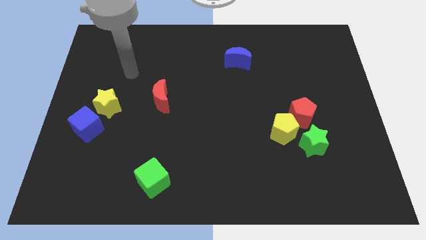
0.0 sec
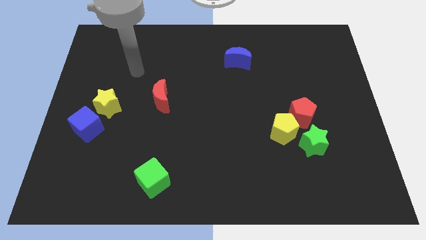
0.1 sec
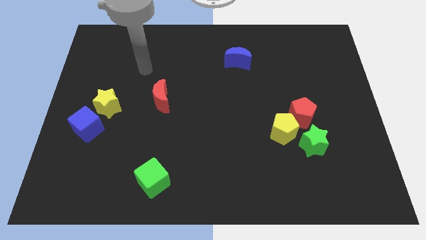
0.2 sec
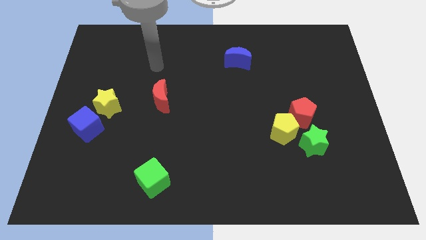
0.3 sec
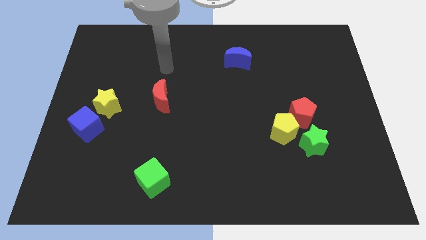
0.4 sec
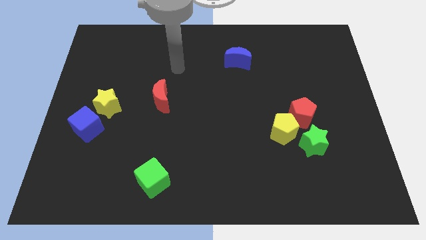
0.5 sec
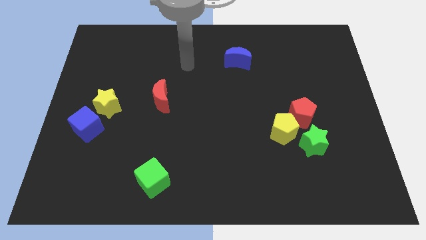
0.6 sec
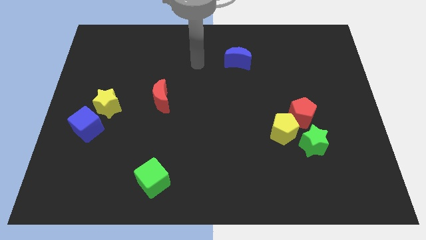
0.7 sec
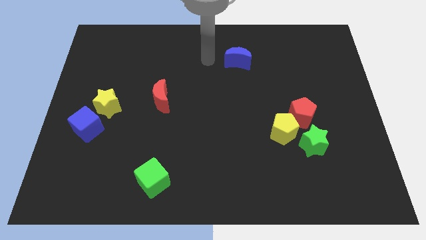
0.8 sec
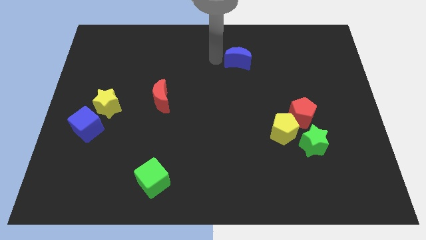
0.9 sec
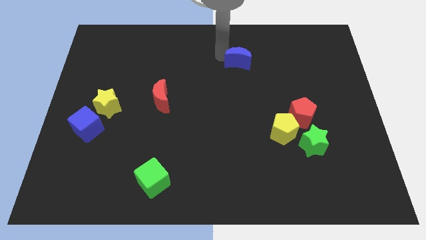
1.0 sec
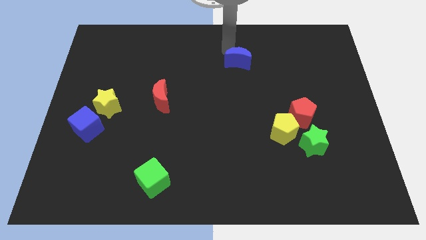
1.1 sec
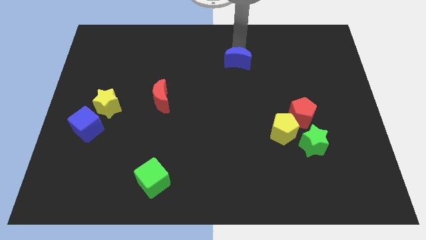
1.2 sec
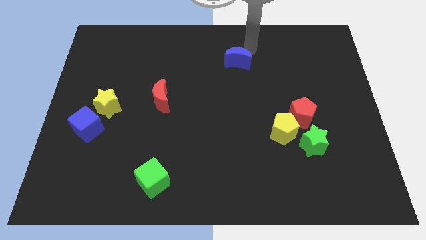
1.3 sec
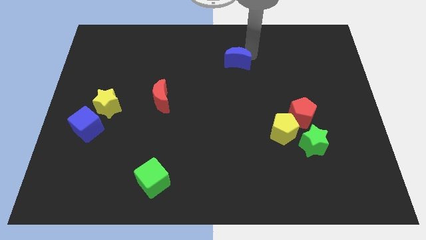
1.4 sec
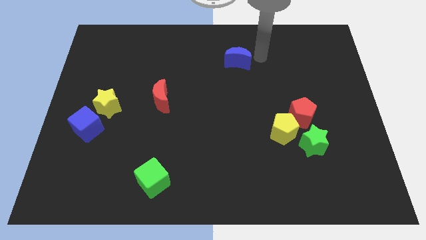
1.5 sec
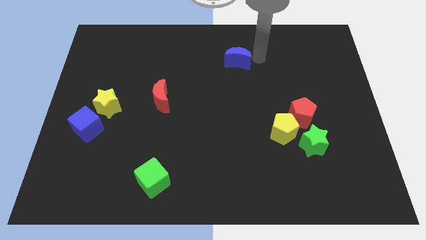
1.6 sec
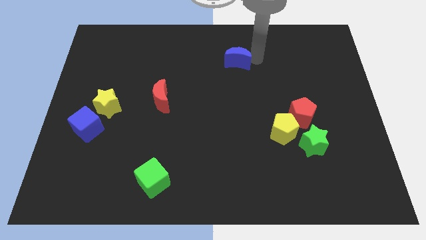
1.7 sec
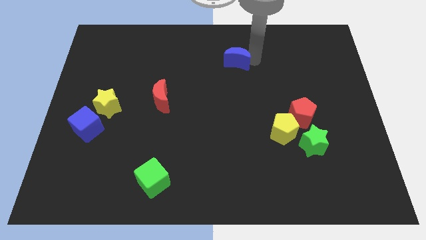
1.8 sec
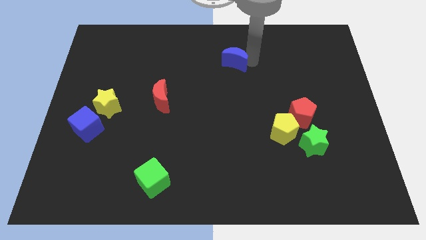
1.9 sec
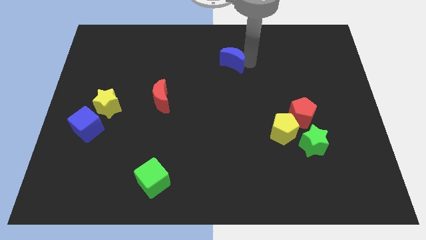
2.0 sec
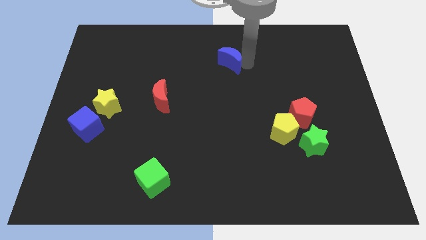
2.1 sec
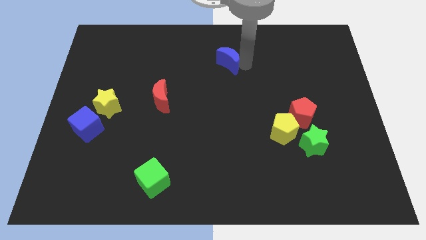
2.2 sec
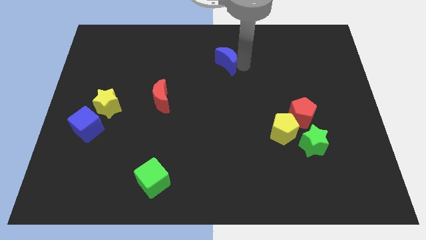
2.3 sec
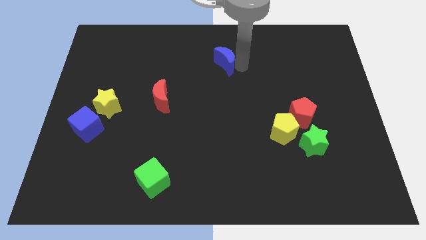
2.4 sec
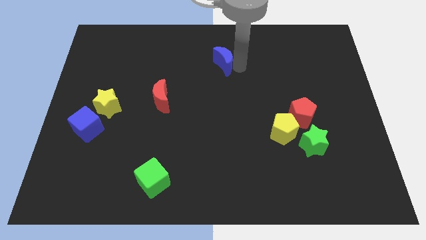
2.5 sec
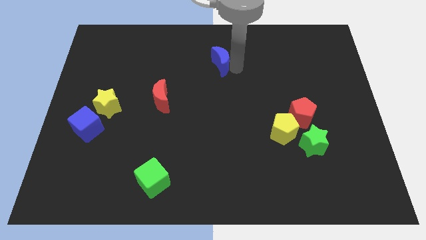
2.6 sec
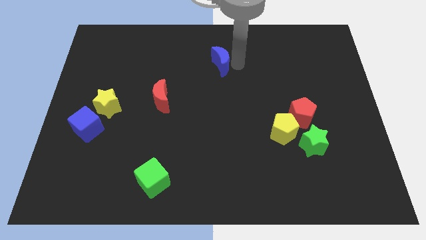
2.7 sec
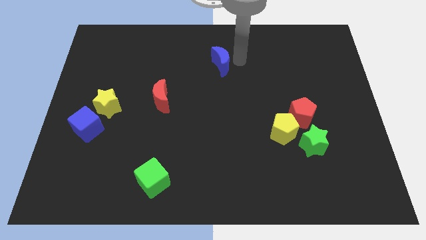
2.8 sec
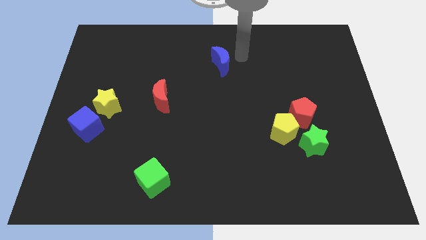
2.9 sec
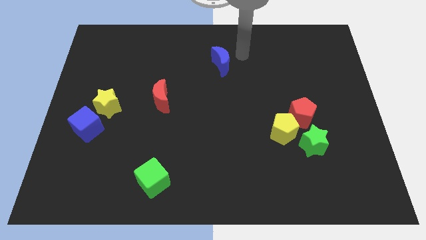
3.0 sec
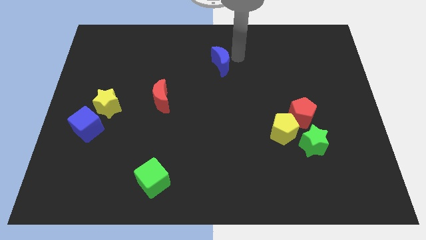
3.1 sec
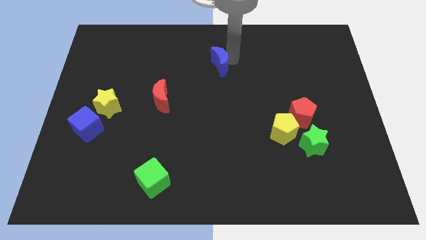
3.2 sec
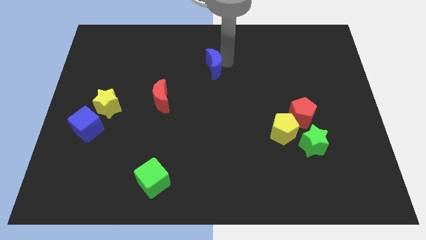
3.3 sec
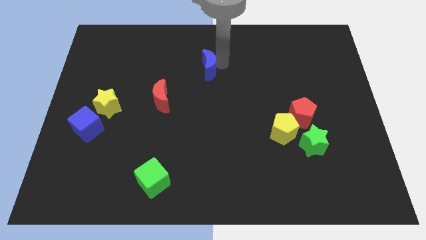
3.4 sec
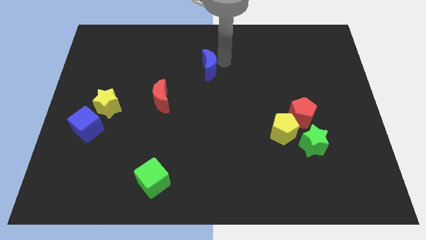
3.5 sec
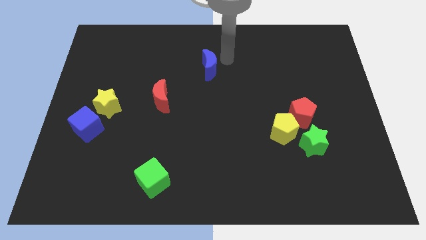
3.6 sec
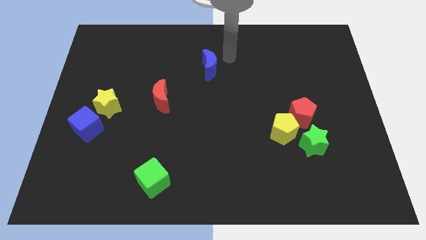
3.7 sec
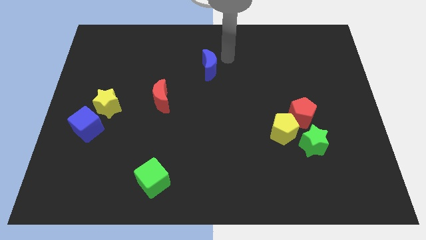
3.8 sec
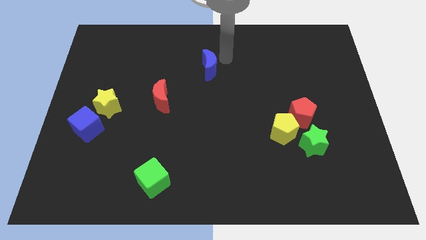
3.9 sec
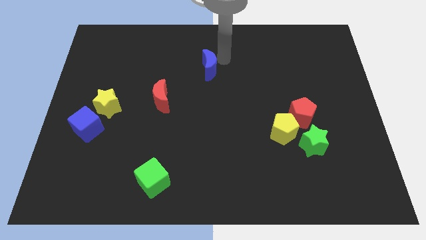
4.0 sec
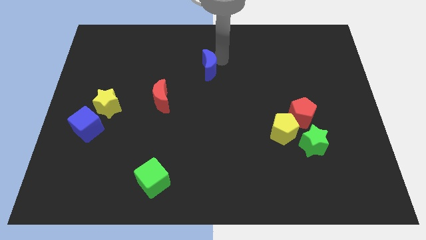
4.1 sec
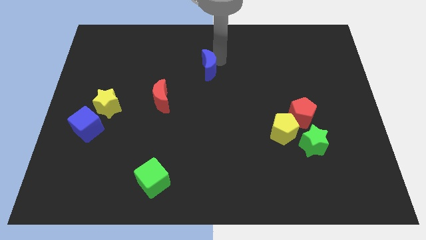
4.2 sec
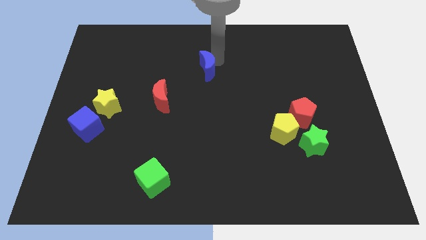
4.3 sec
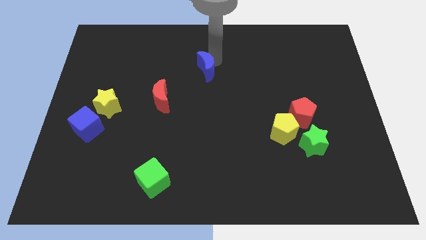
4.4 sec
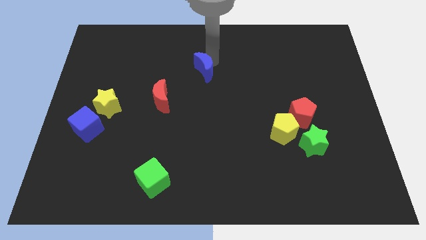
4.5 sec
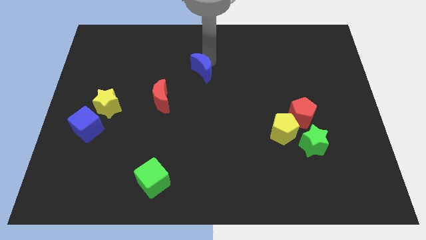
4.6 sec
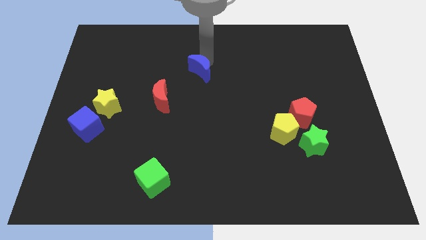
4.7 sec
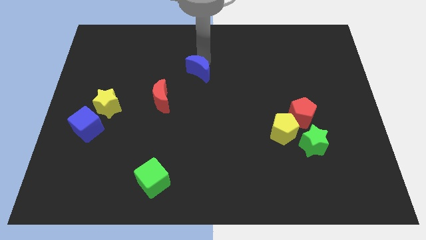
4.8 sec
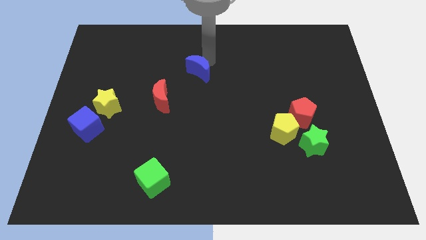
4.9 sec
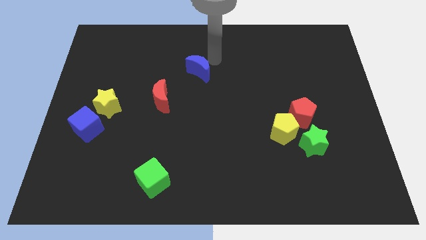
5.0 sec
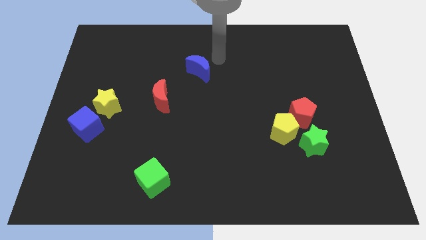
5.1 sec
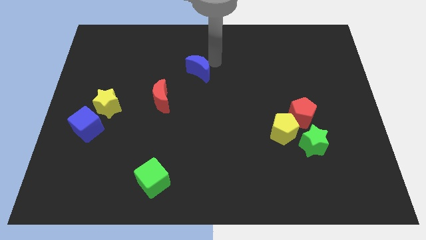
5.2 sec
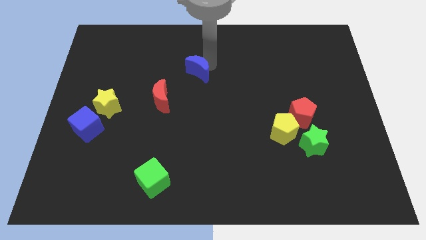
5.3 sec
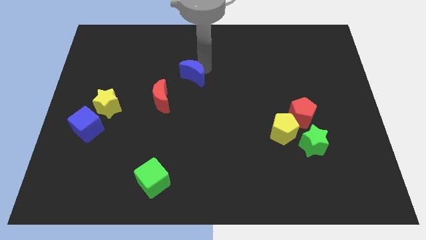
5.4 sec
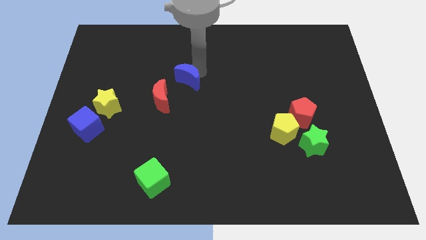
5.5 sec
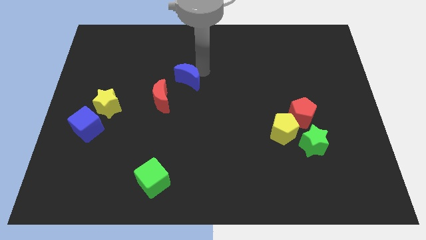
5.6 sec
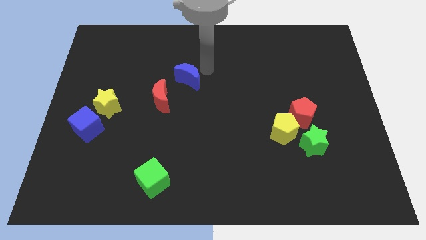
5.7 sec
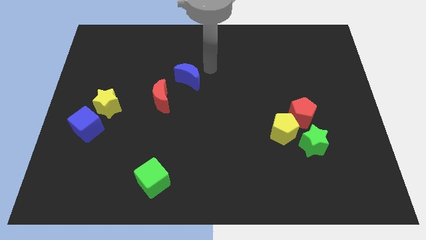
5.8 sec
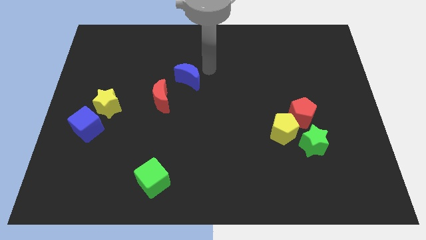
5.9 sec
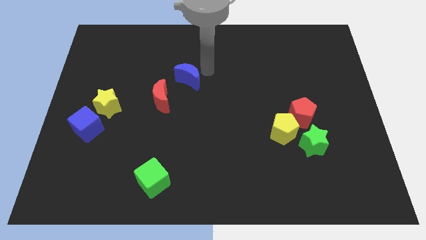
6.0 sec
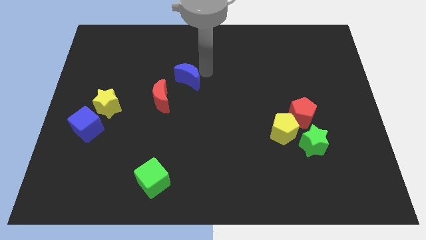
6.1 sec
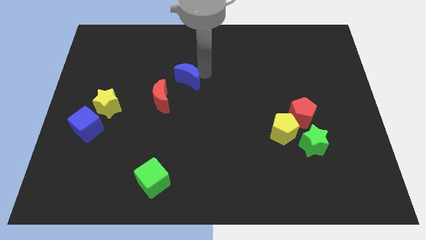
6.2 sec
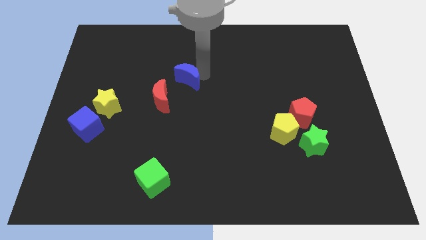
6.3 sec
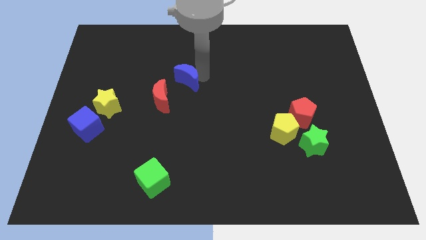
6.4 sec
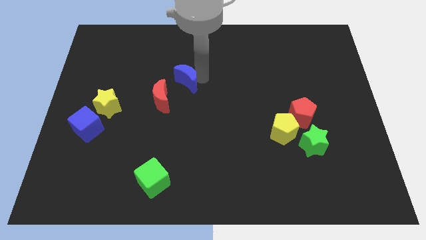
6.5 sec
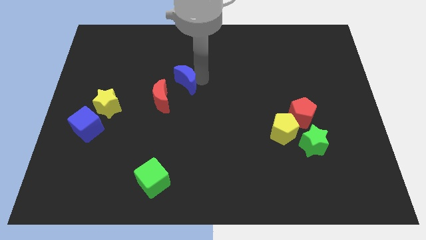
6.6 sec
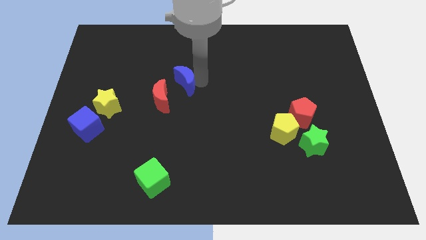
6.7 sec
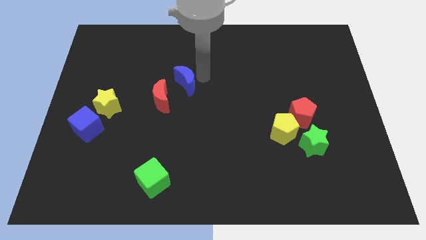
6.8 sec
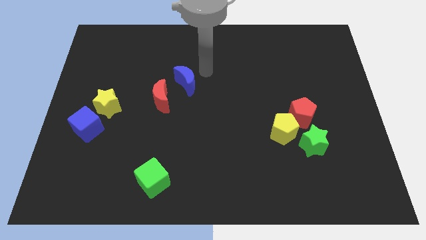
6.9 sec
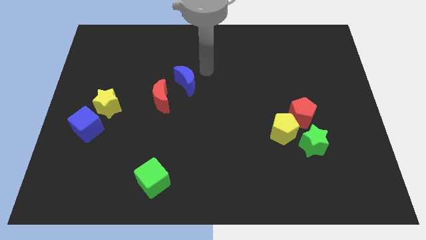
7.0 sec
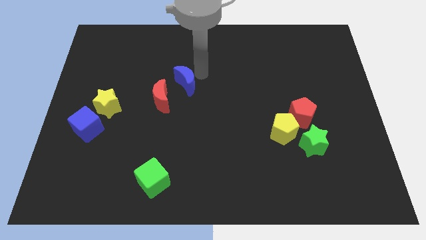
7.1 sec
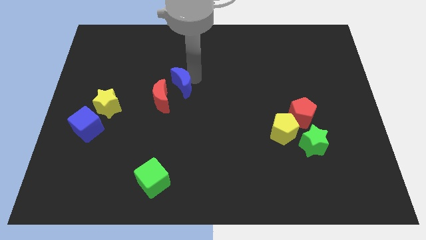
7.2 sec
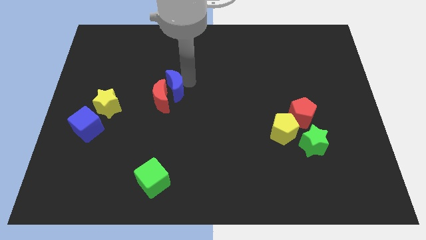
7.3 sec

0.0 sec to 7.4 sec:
slide the blue moon next to the red moon

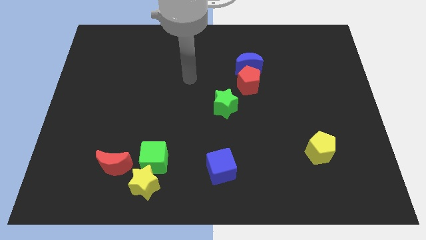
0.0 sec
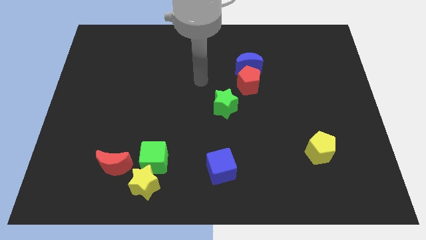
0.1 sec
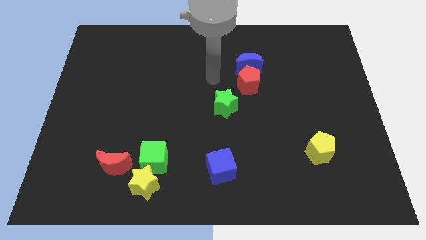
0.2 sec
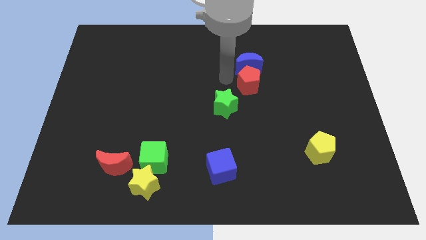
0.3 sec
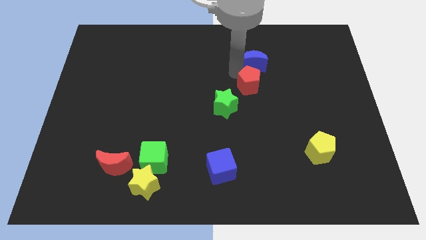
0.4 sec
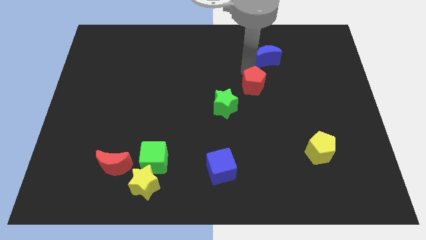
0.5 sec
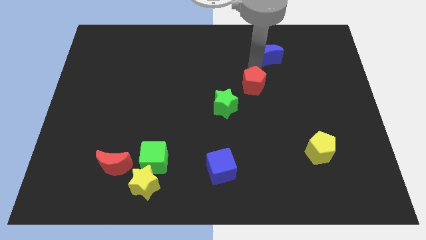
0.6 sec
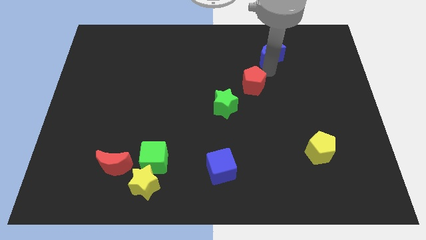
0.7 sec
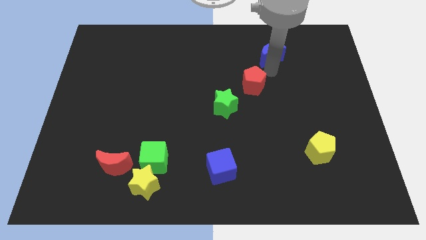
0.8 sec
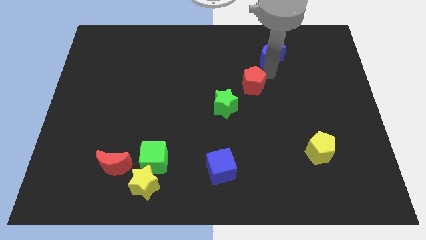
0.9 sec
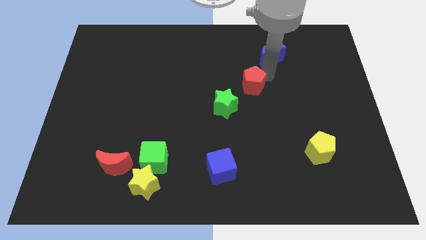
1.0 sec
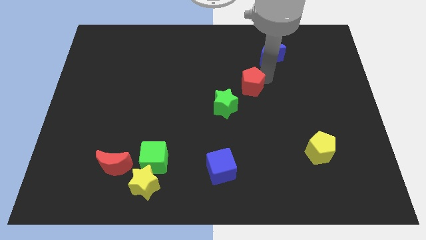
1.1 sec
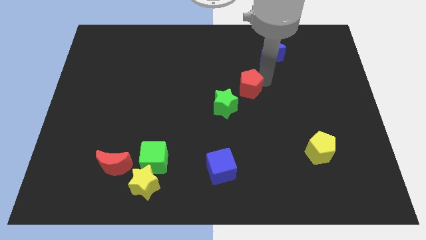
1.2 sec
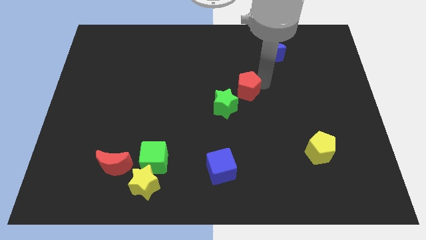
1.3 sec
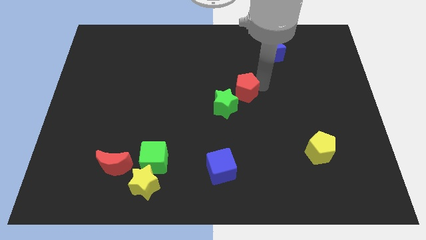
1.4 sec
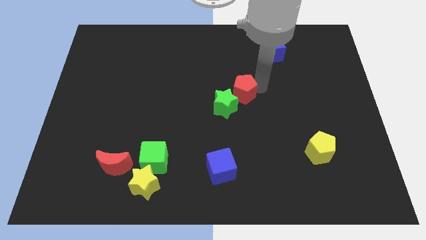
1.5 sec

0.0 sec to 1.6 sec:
put the red pentagon next to the green star
